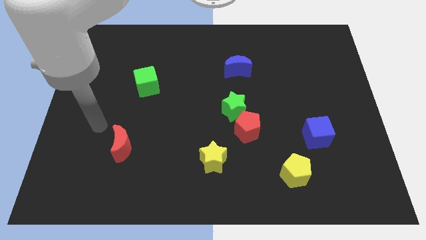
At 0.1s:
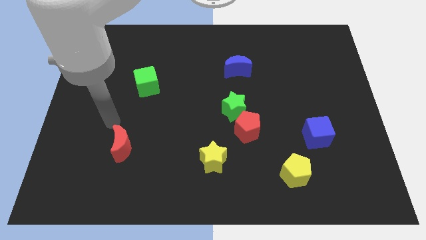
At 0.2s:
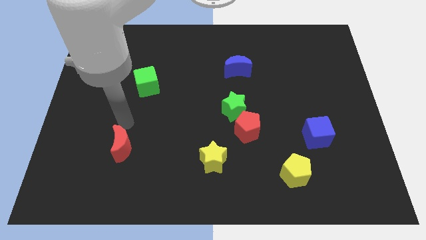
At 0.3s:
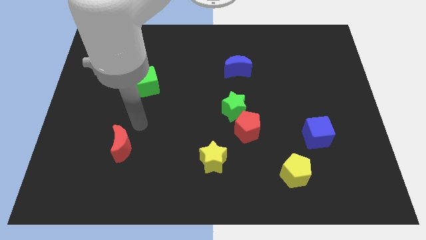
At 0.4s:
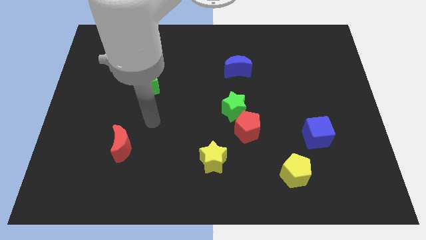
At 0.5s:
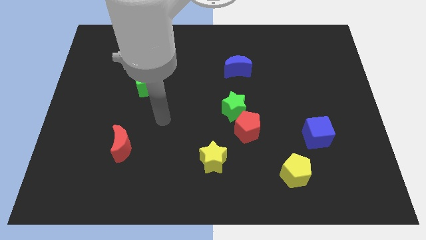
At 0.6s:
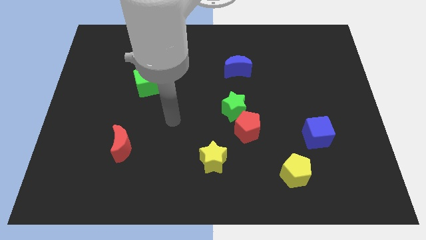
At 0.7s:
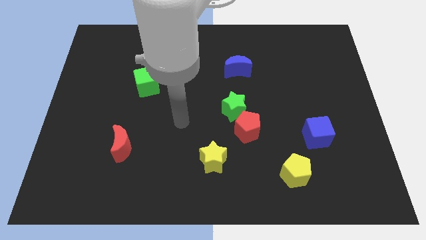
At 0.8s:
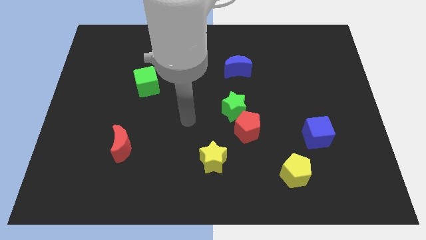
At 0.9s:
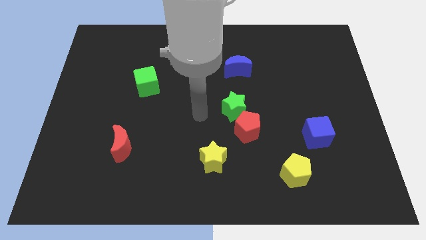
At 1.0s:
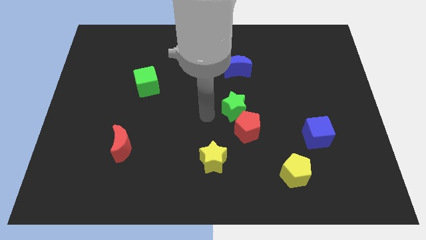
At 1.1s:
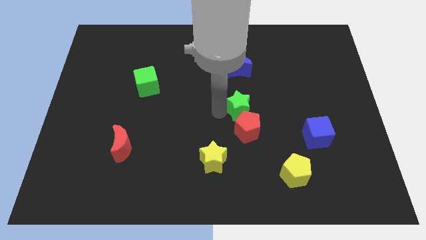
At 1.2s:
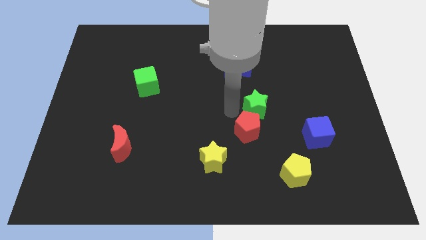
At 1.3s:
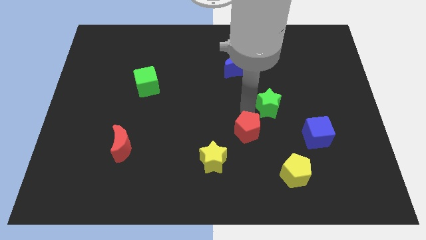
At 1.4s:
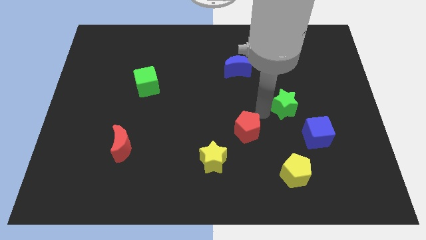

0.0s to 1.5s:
pull the red pentagon apart from the green star

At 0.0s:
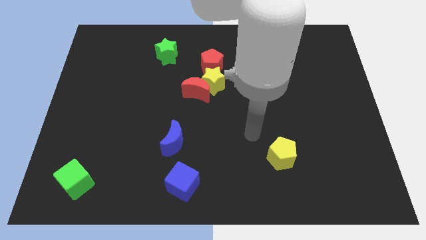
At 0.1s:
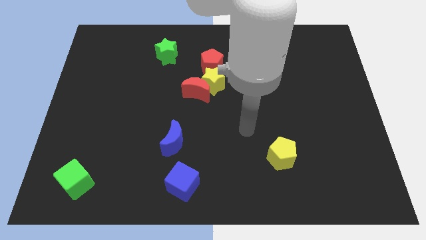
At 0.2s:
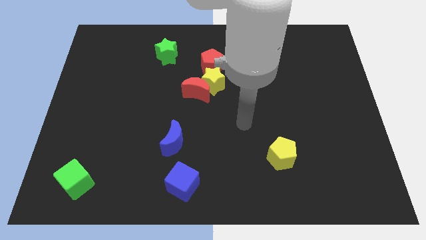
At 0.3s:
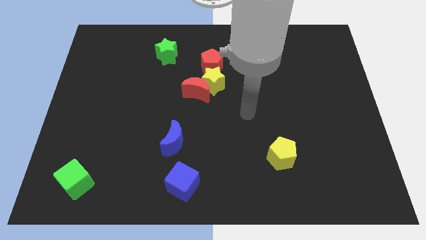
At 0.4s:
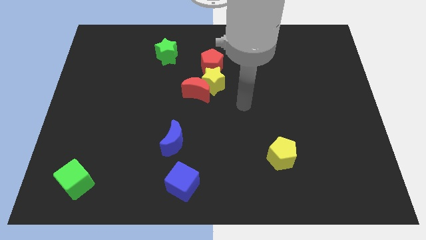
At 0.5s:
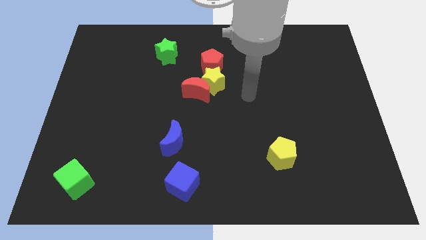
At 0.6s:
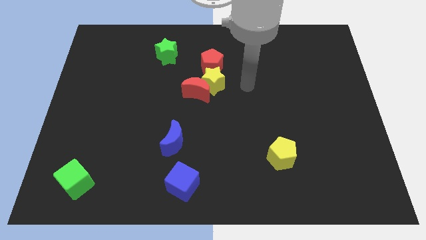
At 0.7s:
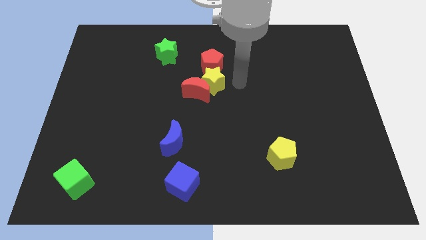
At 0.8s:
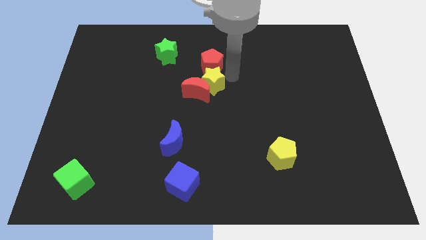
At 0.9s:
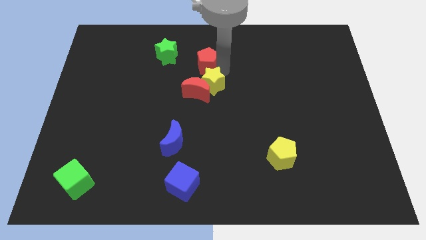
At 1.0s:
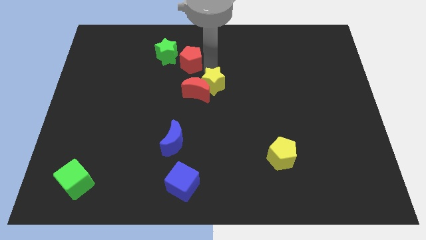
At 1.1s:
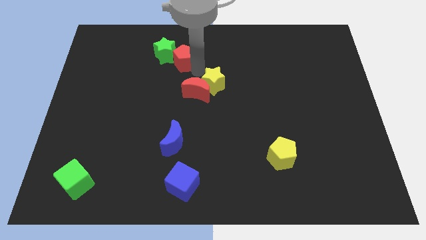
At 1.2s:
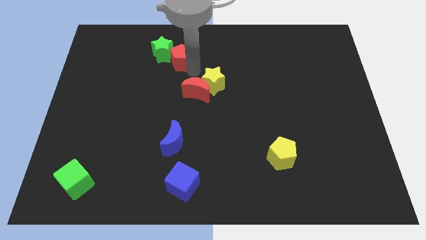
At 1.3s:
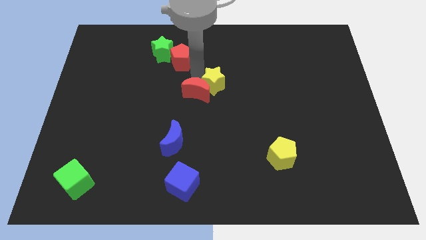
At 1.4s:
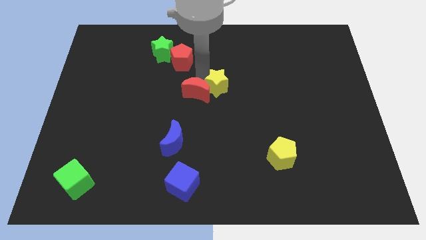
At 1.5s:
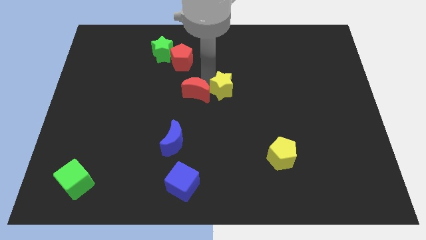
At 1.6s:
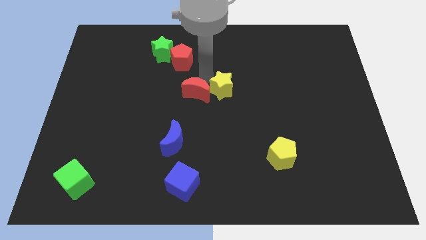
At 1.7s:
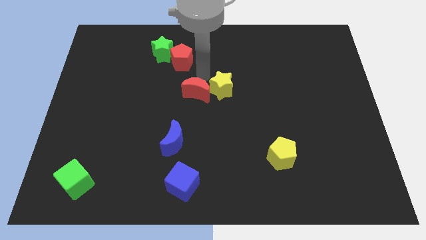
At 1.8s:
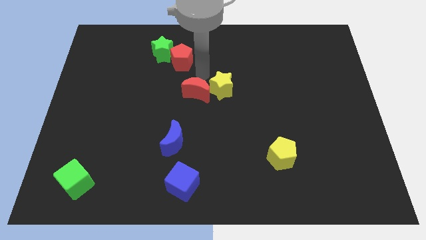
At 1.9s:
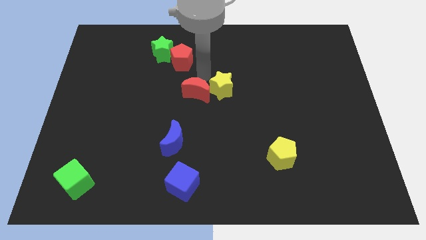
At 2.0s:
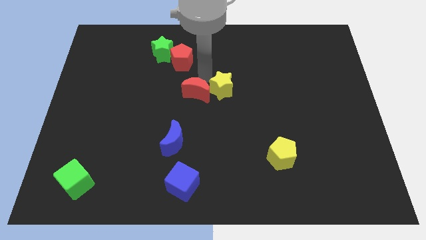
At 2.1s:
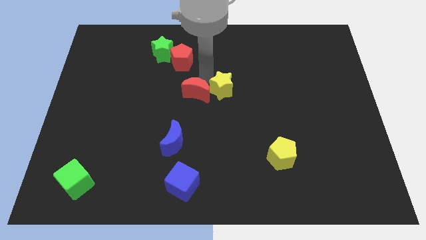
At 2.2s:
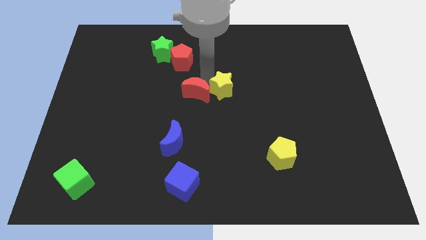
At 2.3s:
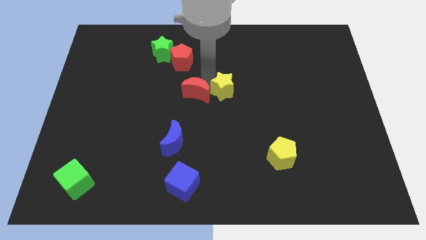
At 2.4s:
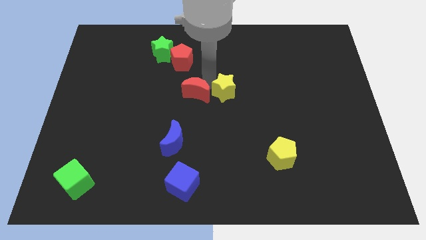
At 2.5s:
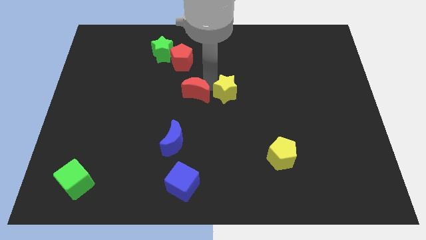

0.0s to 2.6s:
separate the yellow star from the red moon and red pentagon

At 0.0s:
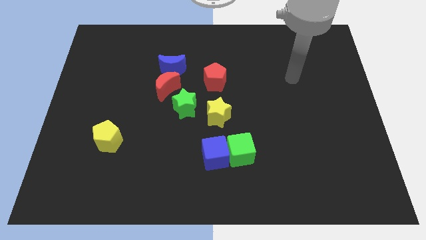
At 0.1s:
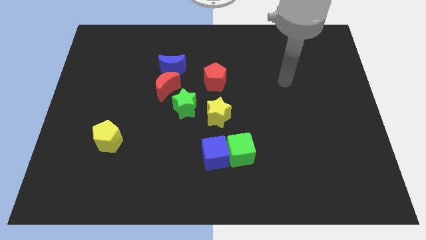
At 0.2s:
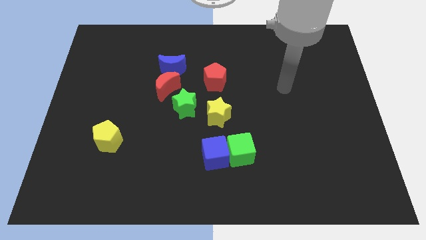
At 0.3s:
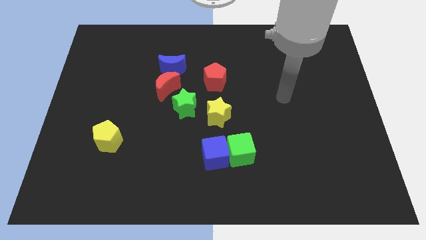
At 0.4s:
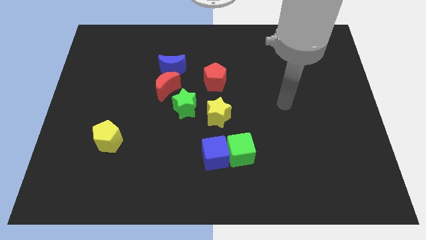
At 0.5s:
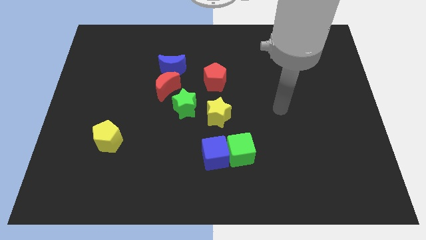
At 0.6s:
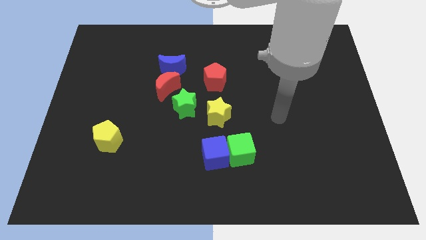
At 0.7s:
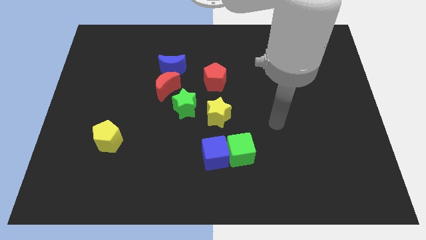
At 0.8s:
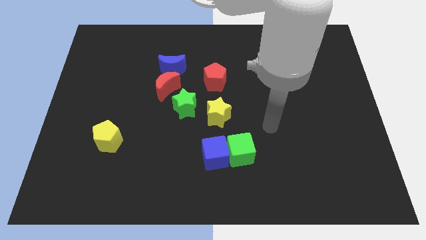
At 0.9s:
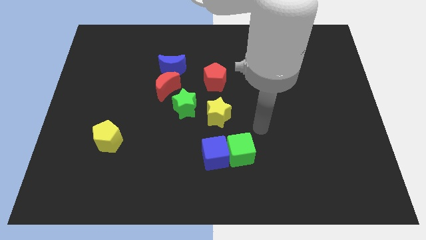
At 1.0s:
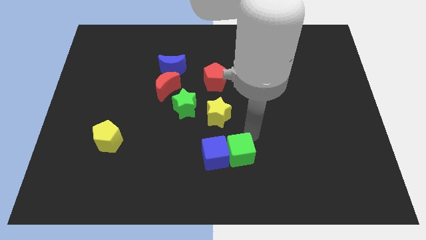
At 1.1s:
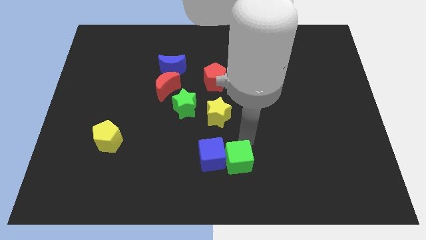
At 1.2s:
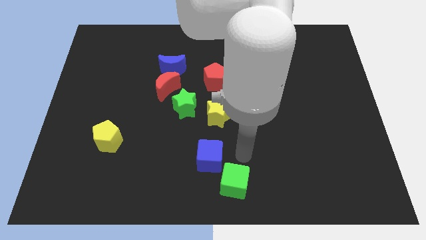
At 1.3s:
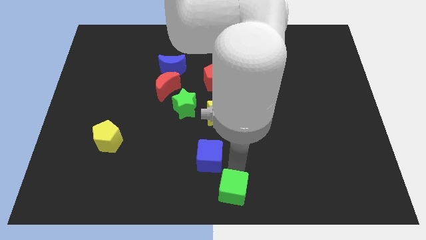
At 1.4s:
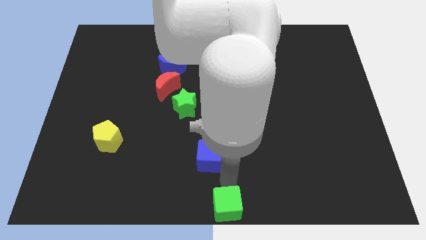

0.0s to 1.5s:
separate the blue cube from the green cube

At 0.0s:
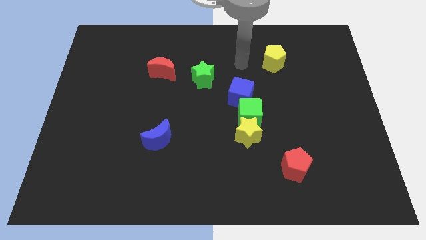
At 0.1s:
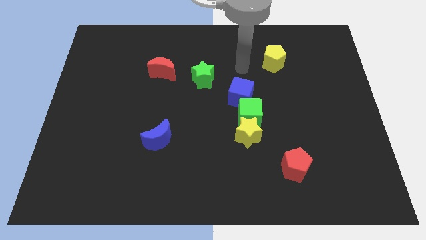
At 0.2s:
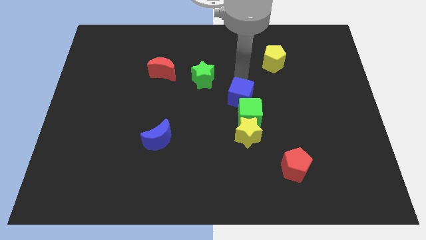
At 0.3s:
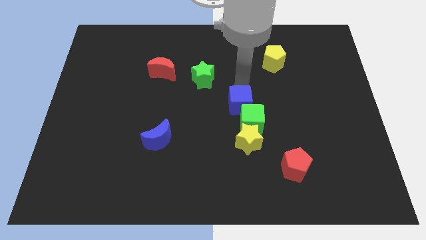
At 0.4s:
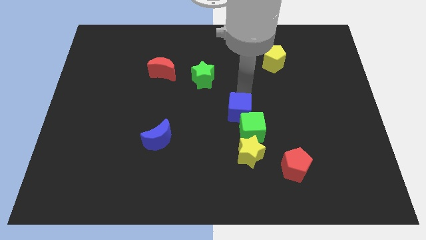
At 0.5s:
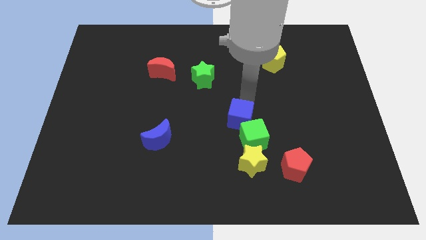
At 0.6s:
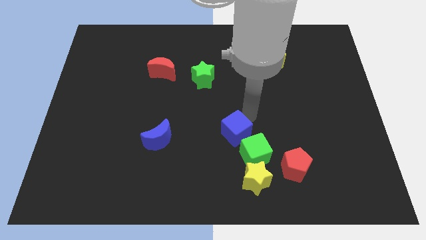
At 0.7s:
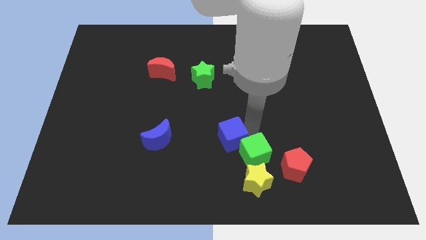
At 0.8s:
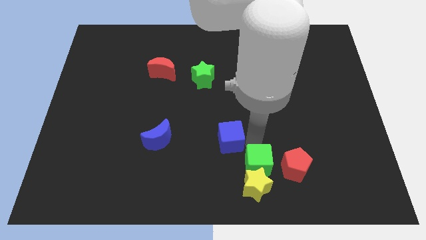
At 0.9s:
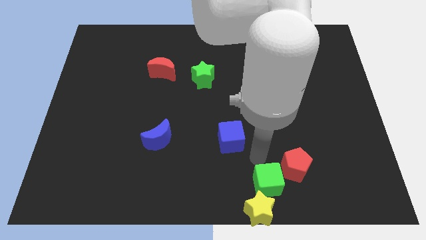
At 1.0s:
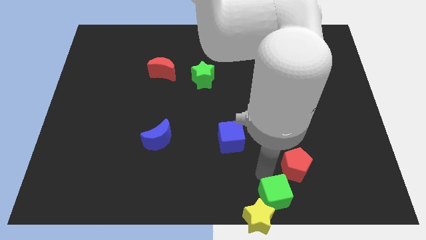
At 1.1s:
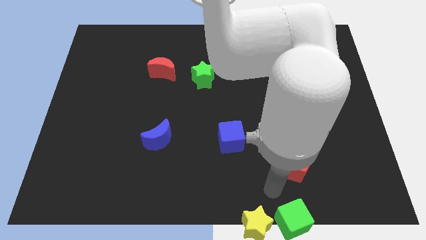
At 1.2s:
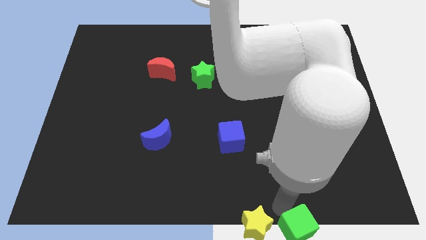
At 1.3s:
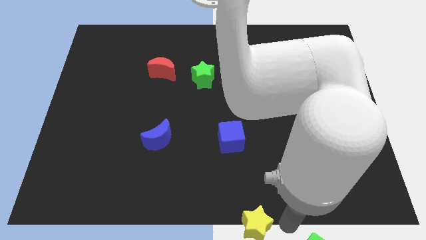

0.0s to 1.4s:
pull the yellow star apart from the green cube

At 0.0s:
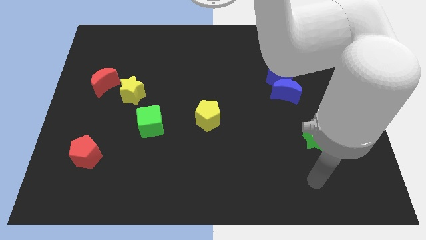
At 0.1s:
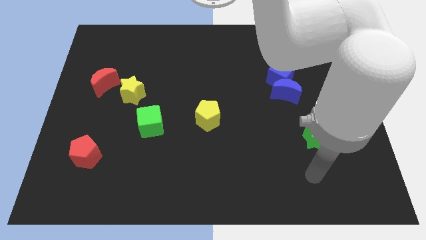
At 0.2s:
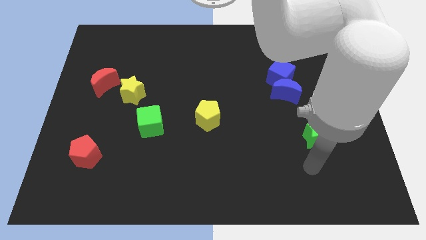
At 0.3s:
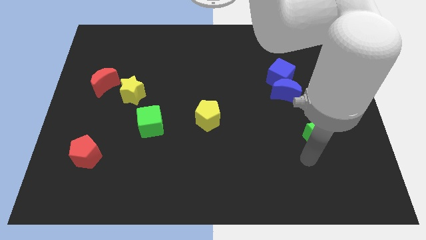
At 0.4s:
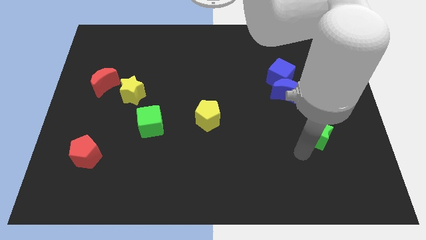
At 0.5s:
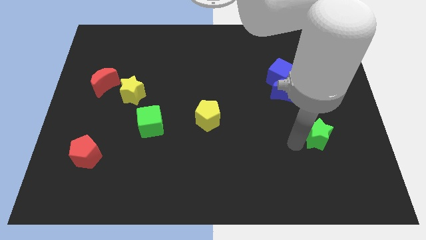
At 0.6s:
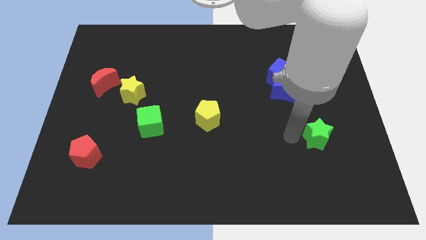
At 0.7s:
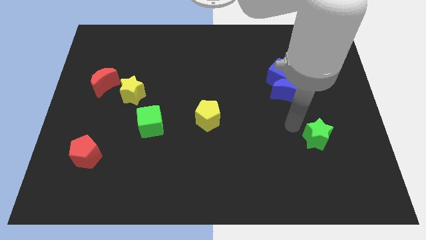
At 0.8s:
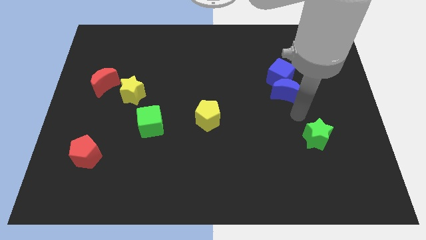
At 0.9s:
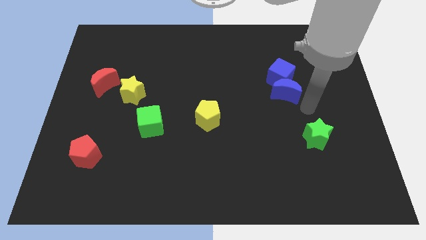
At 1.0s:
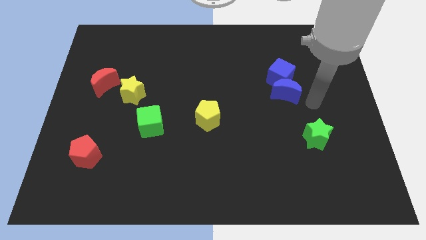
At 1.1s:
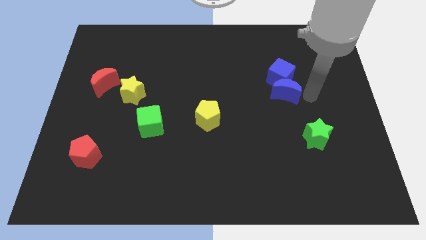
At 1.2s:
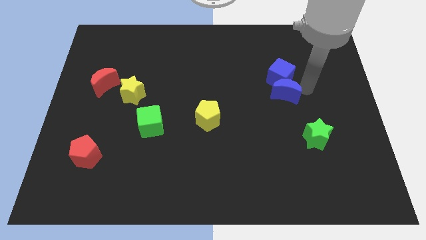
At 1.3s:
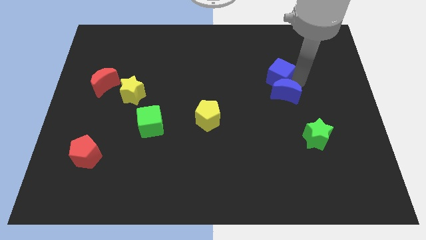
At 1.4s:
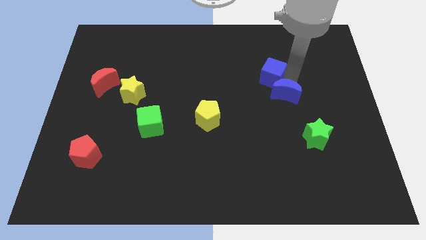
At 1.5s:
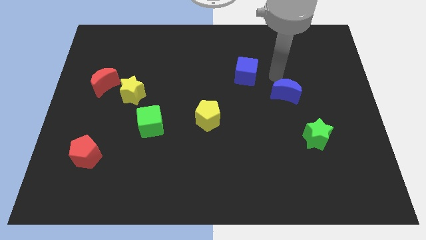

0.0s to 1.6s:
move the blue moon away from the blue cube

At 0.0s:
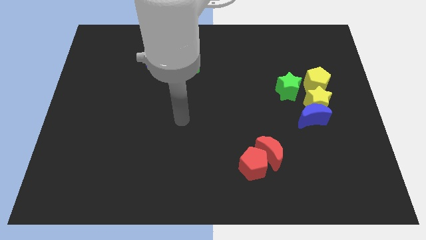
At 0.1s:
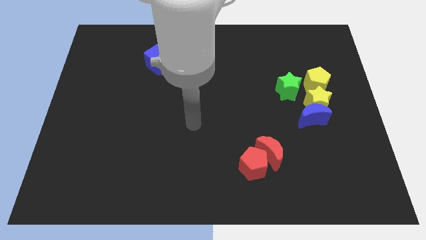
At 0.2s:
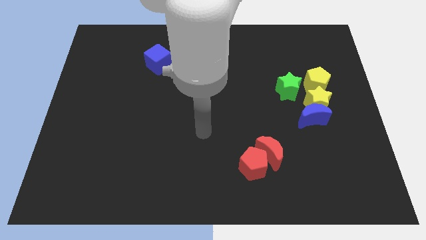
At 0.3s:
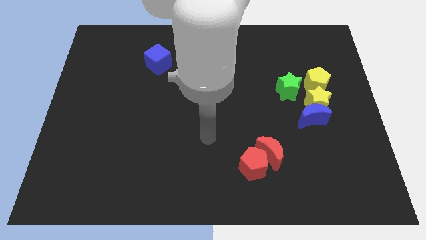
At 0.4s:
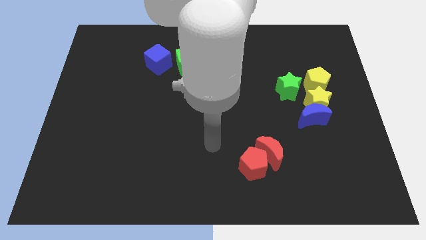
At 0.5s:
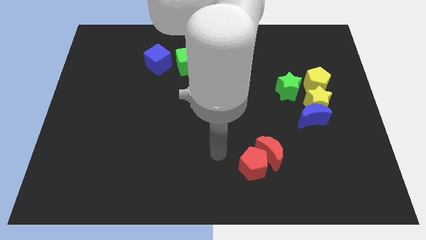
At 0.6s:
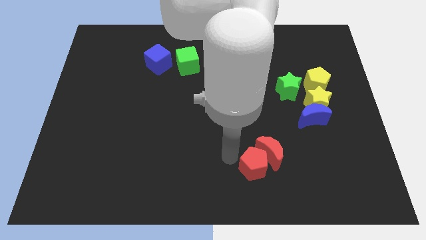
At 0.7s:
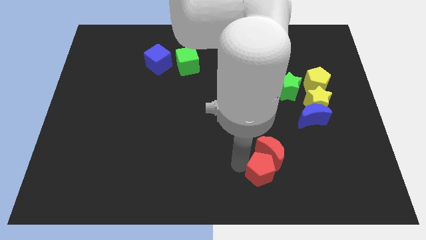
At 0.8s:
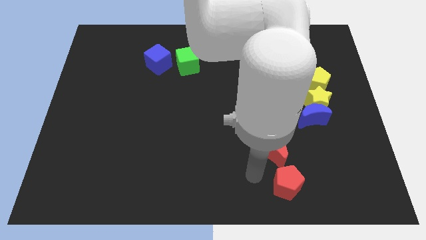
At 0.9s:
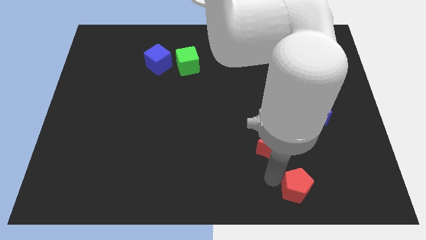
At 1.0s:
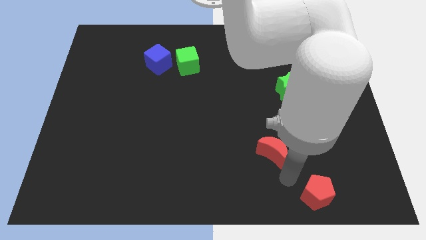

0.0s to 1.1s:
separate the red moon from the red pentagon
